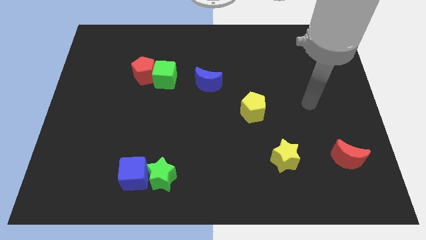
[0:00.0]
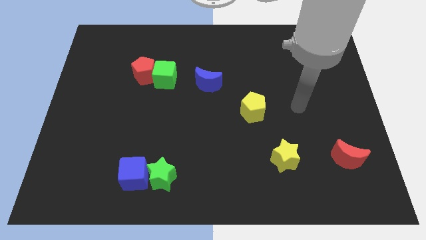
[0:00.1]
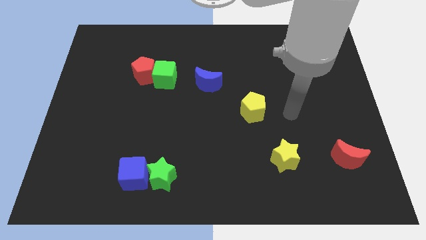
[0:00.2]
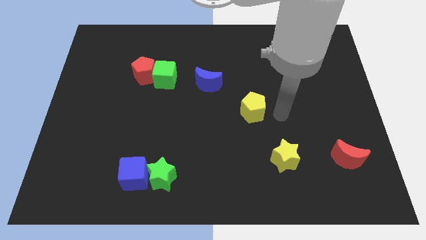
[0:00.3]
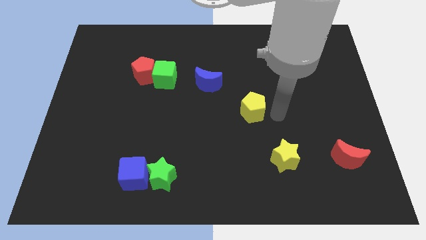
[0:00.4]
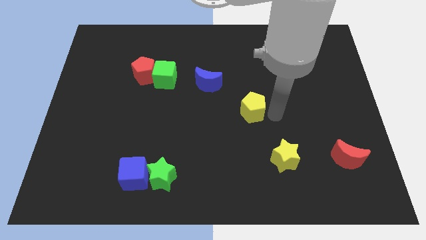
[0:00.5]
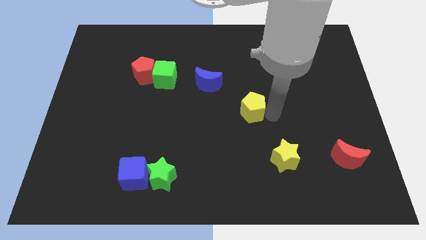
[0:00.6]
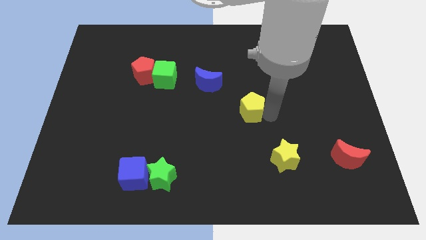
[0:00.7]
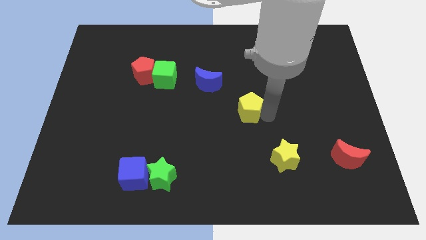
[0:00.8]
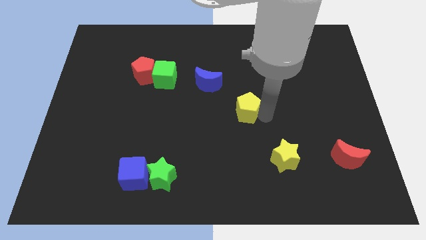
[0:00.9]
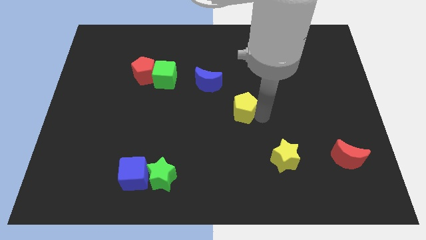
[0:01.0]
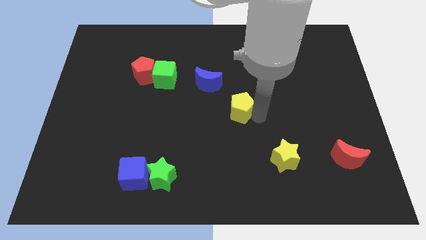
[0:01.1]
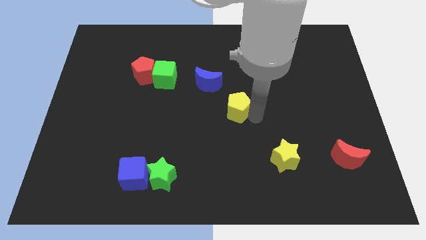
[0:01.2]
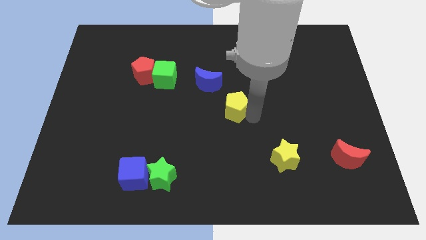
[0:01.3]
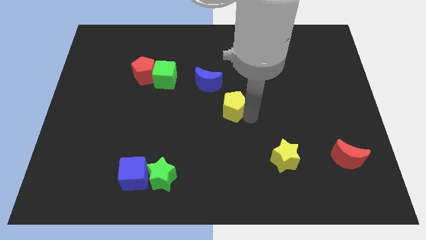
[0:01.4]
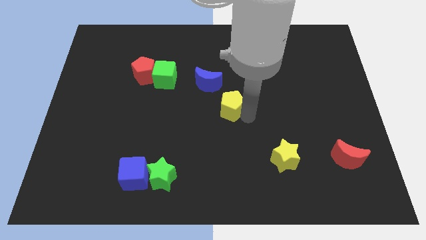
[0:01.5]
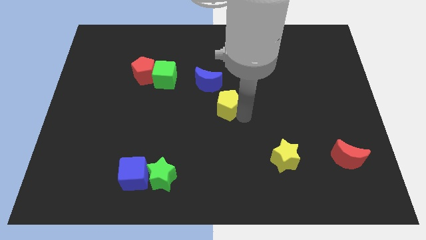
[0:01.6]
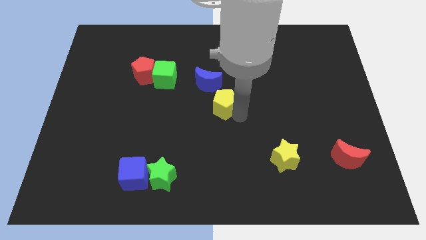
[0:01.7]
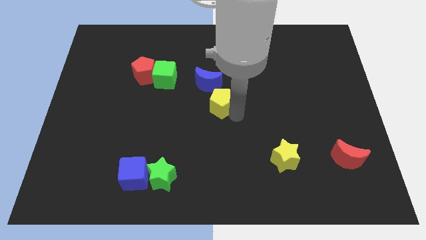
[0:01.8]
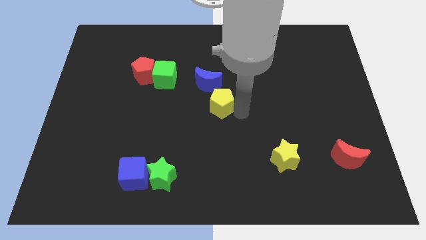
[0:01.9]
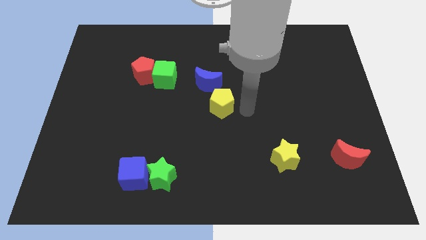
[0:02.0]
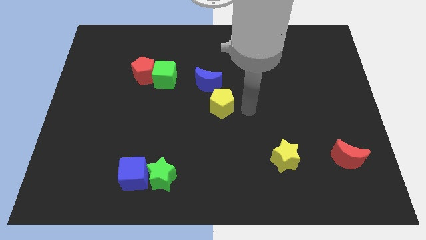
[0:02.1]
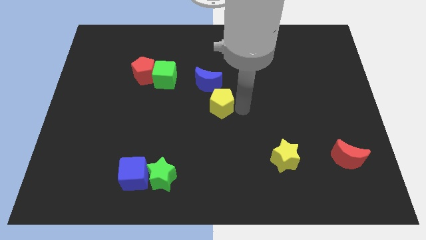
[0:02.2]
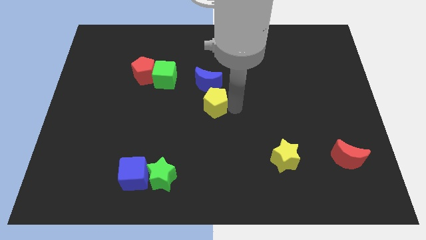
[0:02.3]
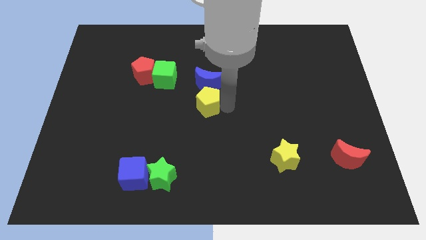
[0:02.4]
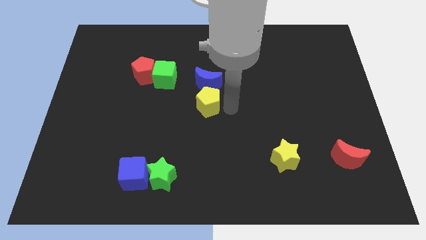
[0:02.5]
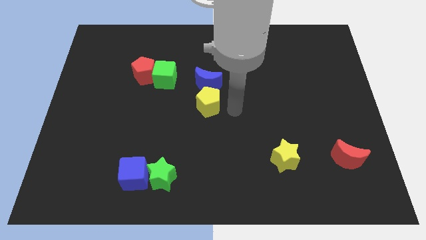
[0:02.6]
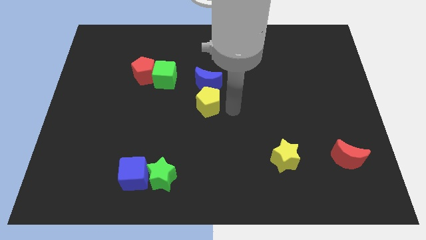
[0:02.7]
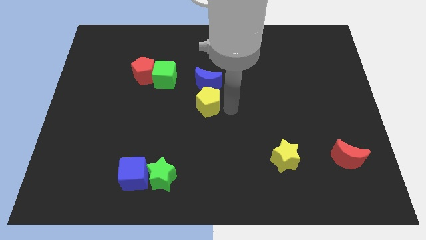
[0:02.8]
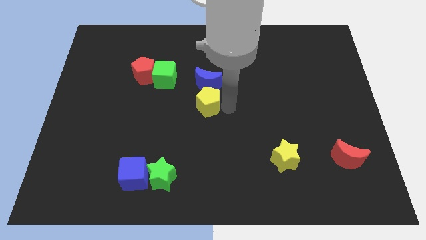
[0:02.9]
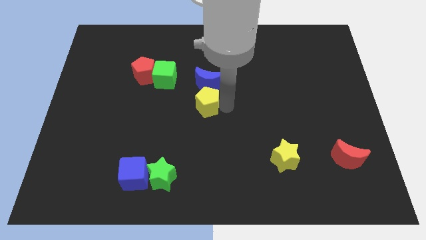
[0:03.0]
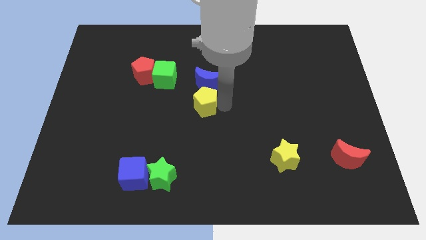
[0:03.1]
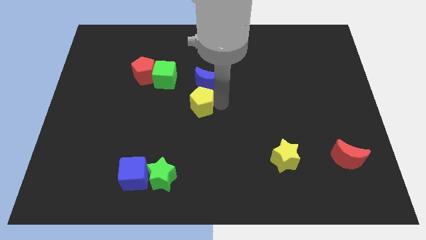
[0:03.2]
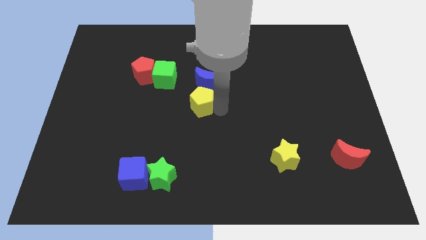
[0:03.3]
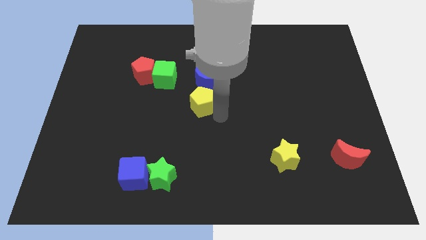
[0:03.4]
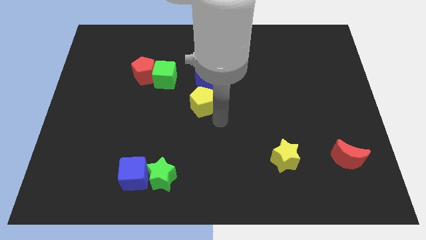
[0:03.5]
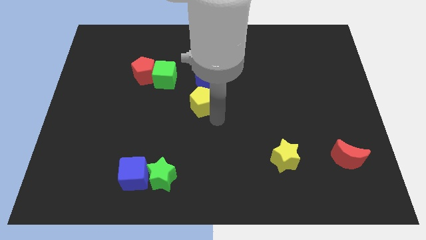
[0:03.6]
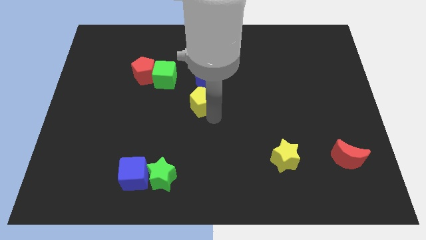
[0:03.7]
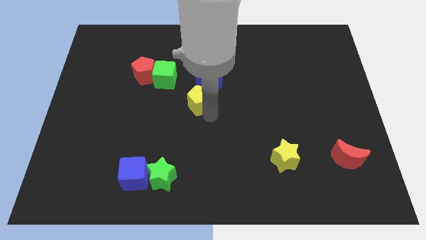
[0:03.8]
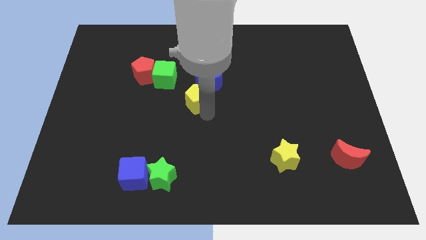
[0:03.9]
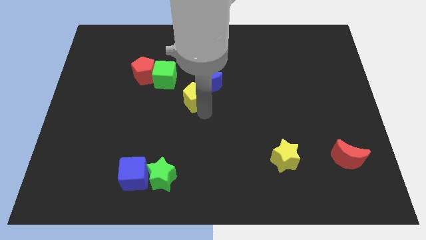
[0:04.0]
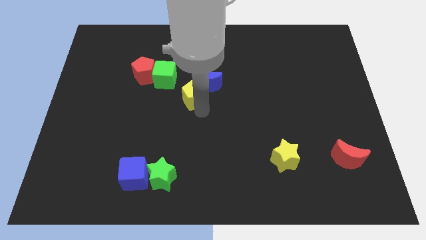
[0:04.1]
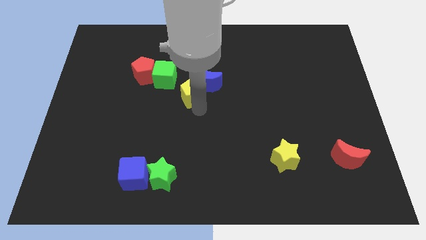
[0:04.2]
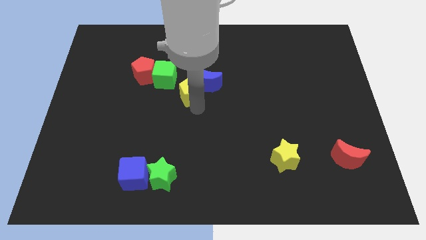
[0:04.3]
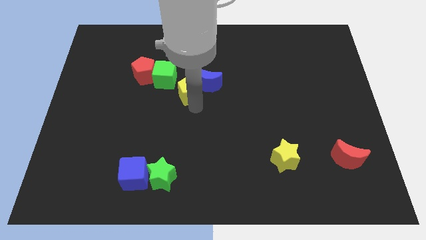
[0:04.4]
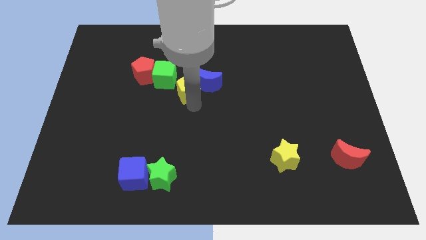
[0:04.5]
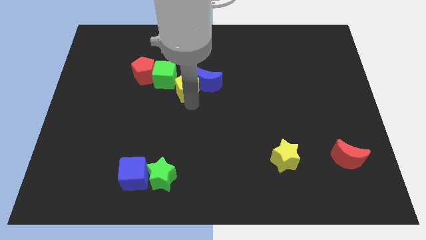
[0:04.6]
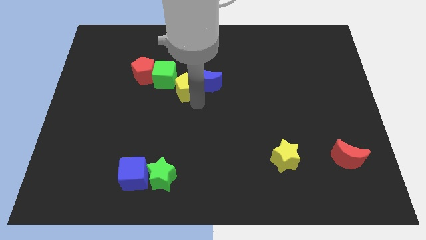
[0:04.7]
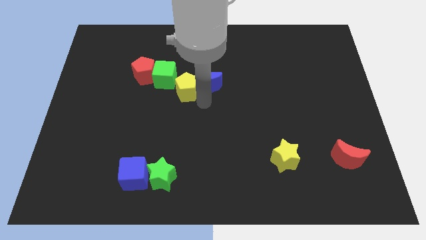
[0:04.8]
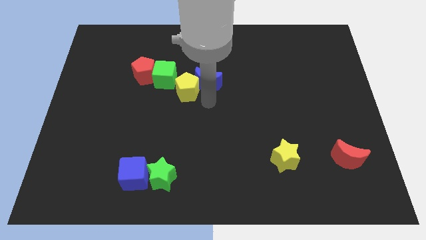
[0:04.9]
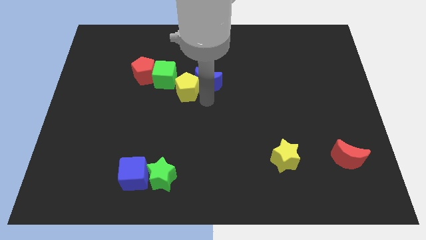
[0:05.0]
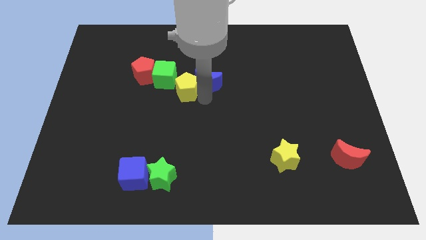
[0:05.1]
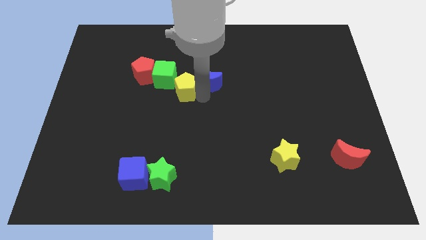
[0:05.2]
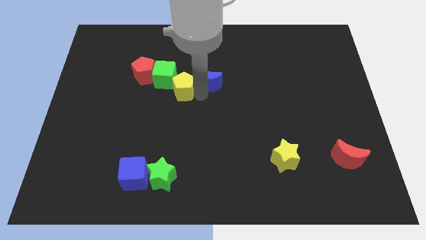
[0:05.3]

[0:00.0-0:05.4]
move the yellow pentagon close to the green cube

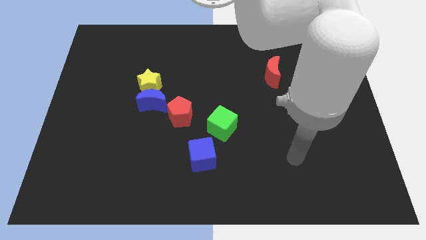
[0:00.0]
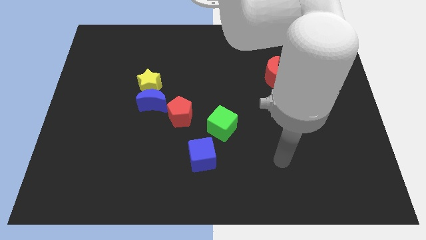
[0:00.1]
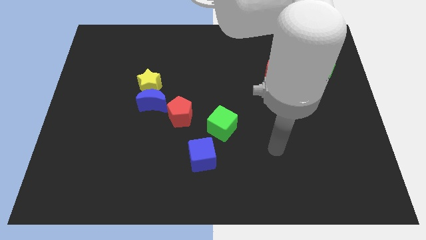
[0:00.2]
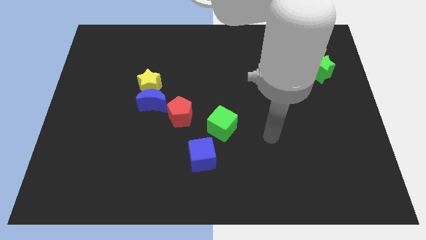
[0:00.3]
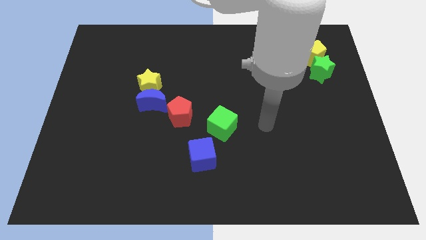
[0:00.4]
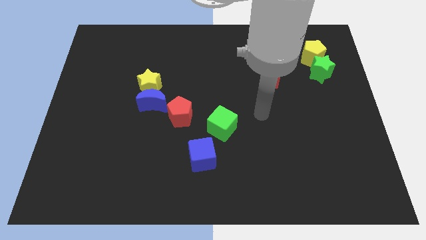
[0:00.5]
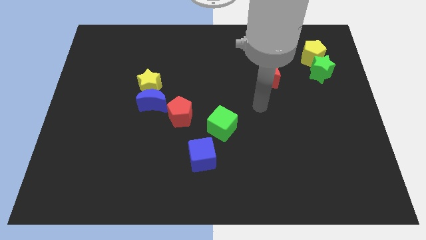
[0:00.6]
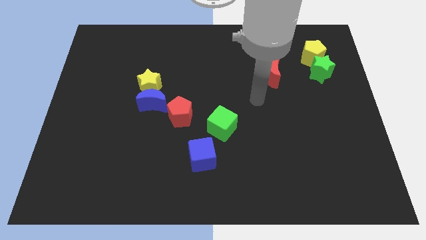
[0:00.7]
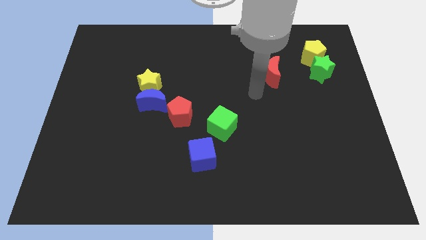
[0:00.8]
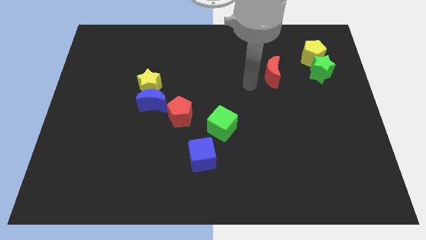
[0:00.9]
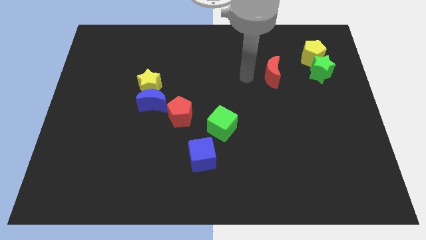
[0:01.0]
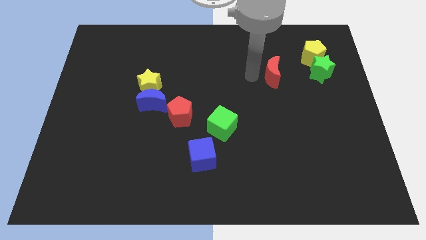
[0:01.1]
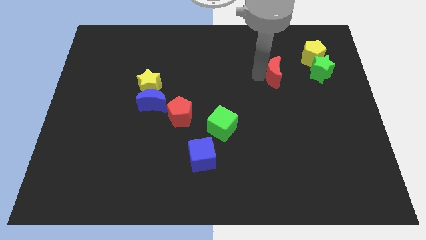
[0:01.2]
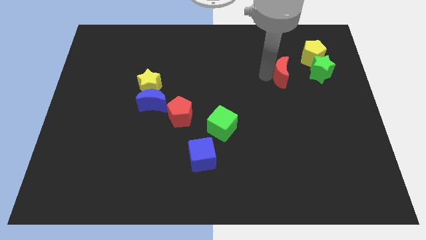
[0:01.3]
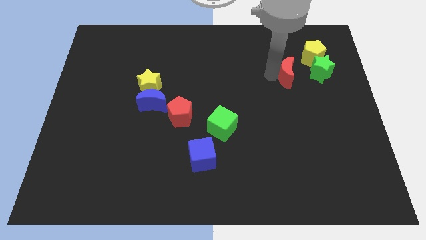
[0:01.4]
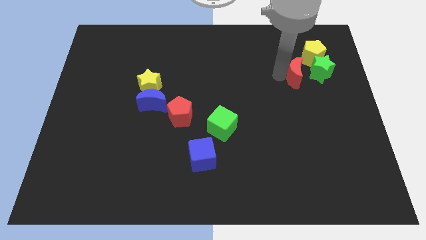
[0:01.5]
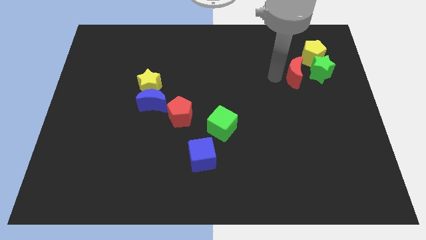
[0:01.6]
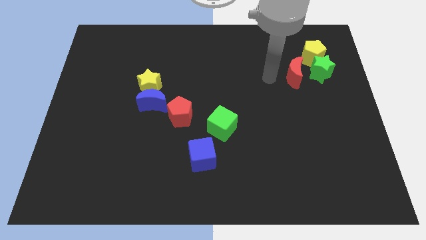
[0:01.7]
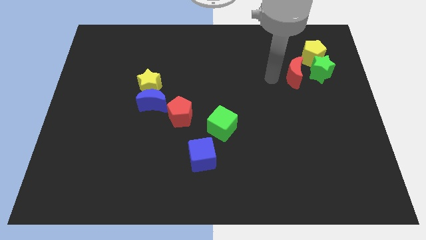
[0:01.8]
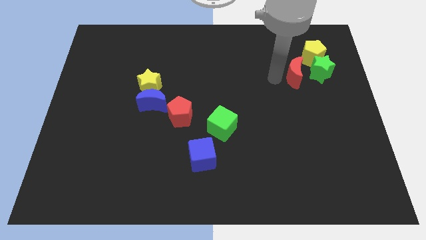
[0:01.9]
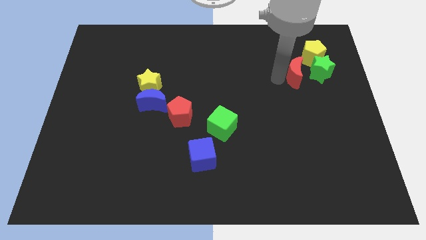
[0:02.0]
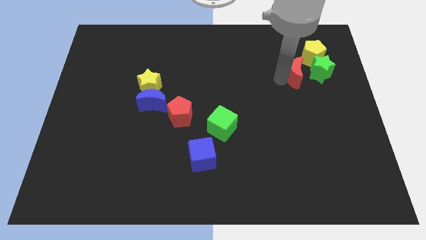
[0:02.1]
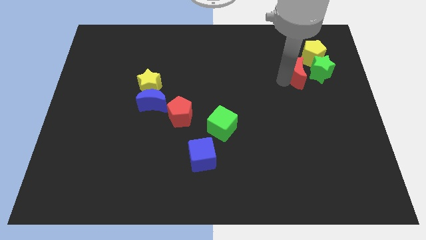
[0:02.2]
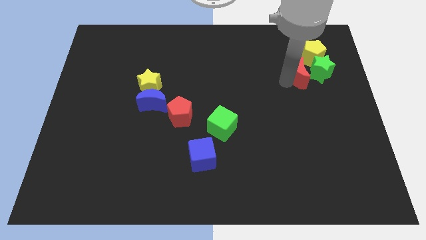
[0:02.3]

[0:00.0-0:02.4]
move the red moon close to the green star
